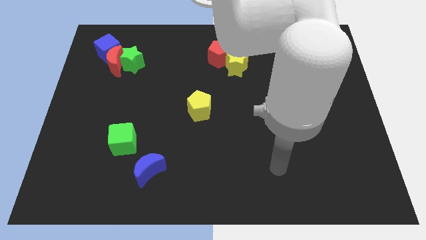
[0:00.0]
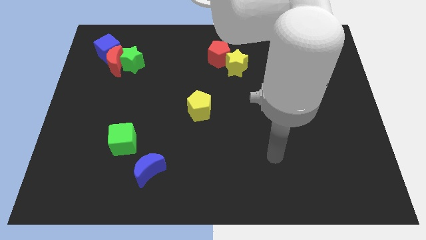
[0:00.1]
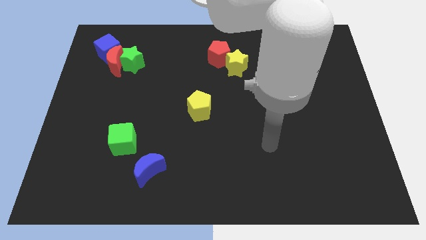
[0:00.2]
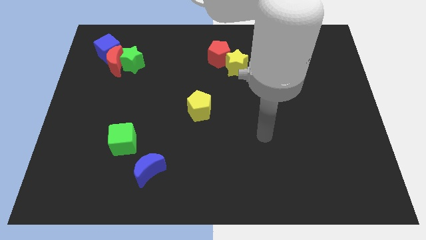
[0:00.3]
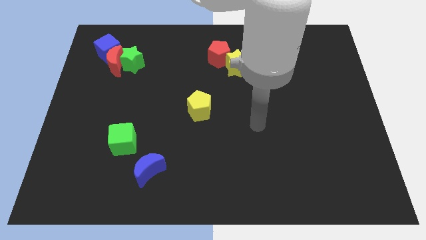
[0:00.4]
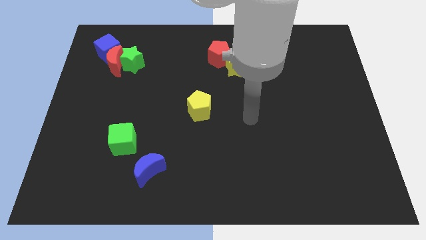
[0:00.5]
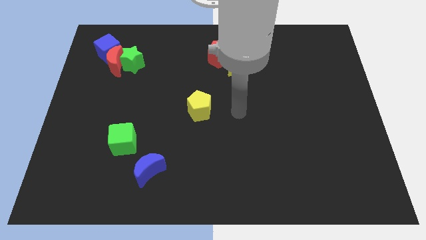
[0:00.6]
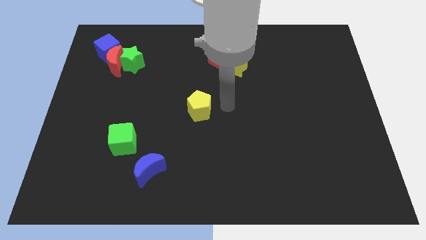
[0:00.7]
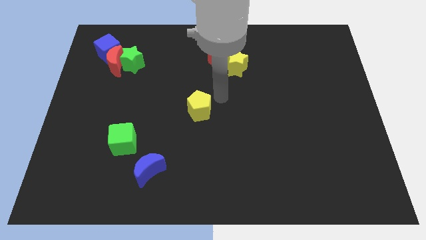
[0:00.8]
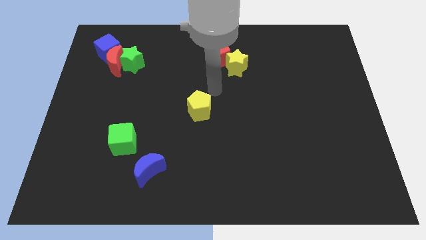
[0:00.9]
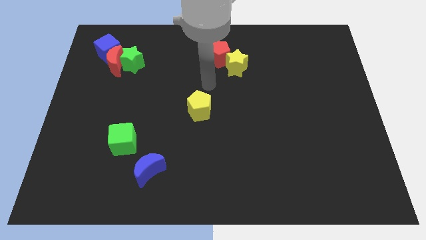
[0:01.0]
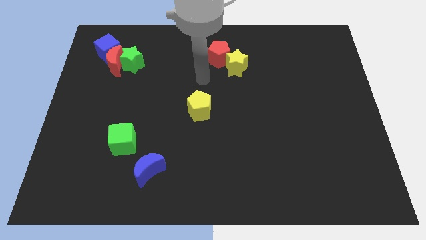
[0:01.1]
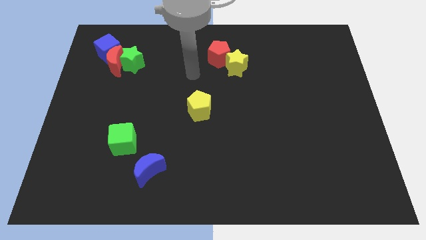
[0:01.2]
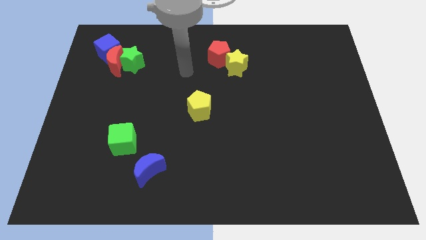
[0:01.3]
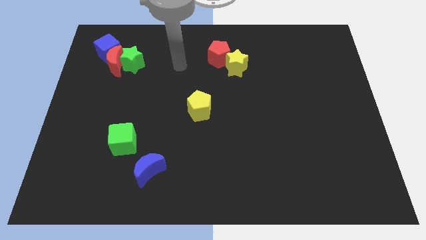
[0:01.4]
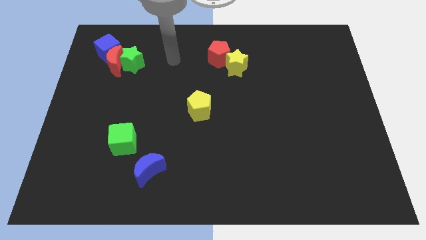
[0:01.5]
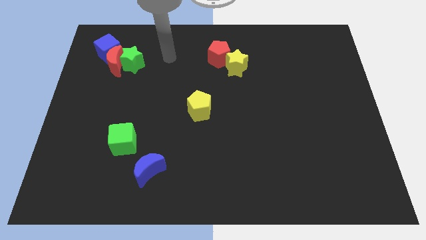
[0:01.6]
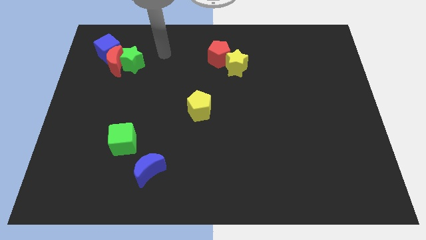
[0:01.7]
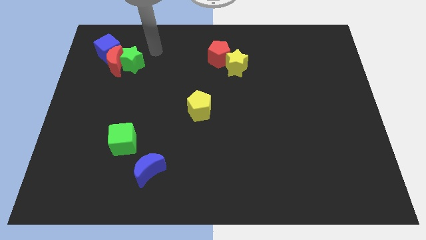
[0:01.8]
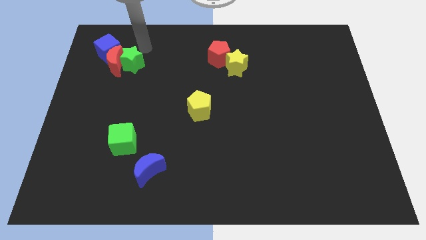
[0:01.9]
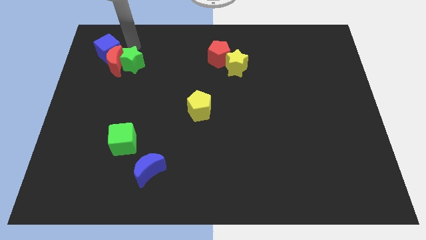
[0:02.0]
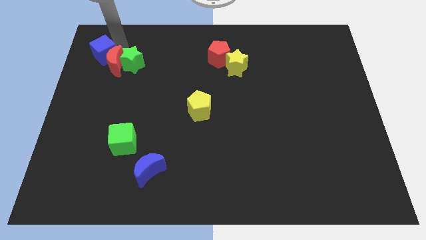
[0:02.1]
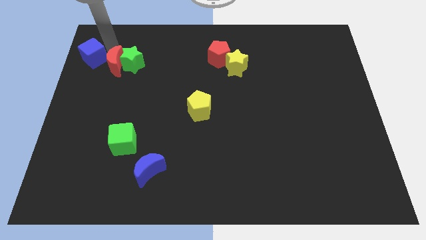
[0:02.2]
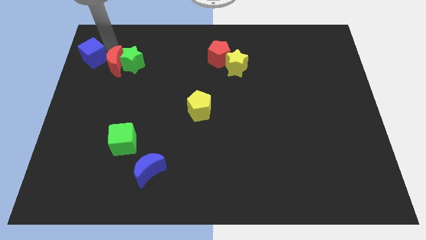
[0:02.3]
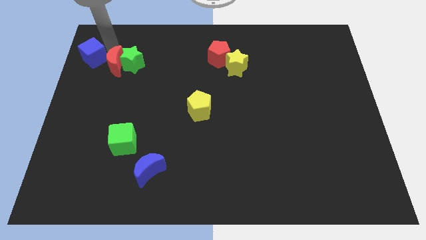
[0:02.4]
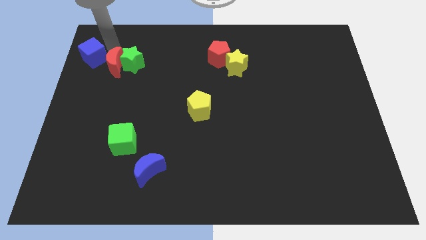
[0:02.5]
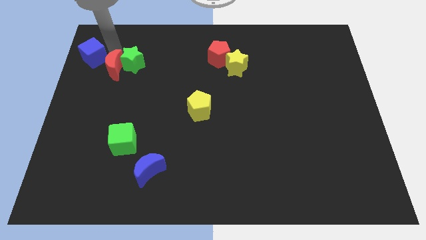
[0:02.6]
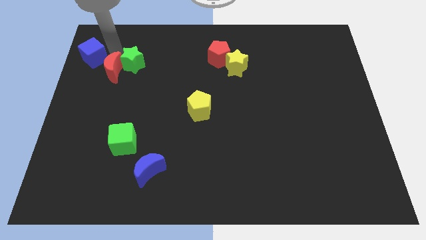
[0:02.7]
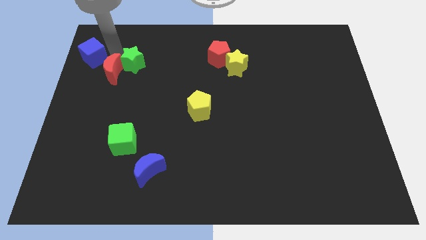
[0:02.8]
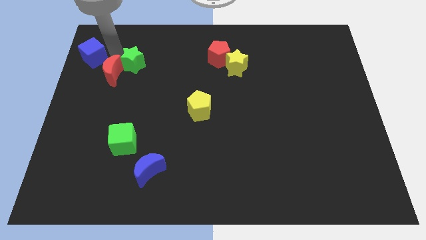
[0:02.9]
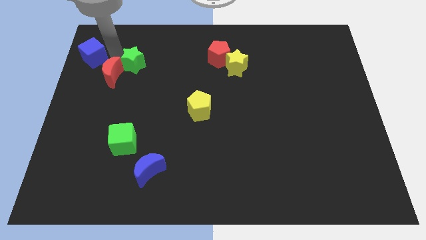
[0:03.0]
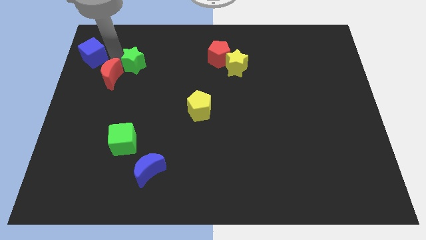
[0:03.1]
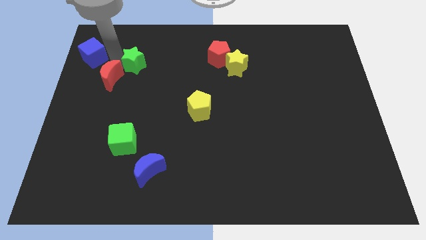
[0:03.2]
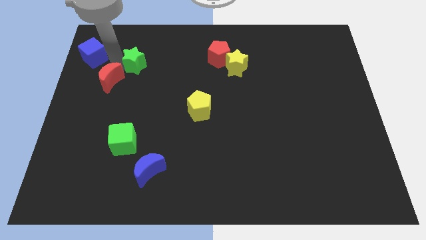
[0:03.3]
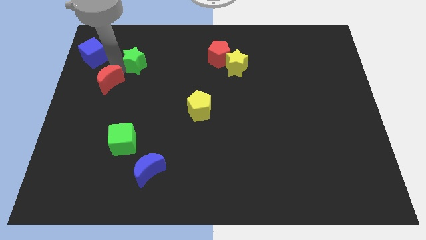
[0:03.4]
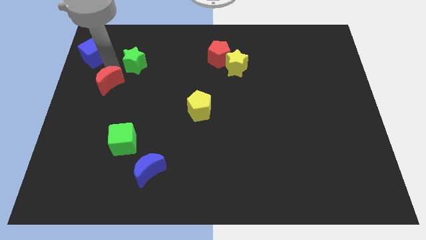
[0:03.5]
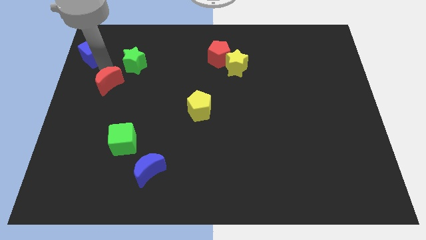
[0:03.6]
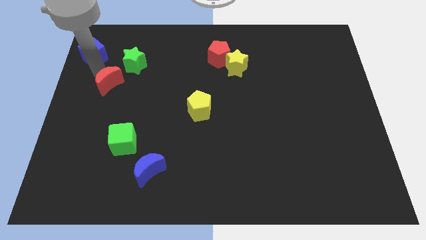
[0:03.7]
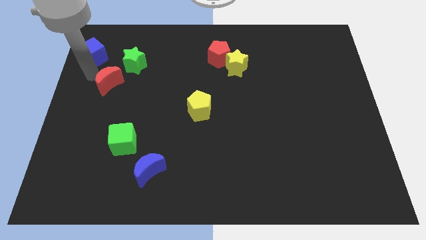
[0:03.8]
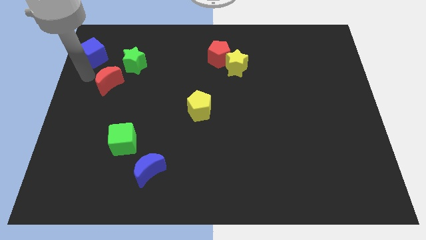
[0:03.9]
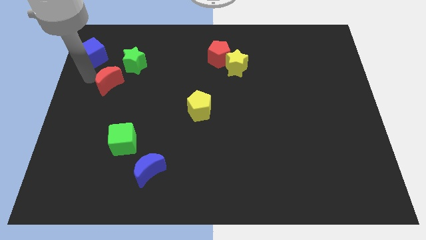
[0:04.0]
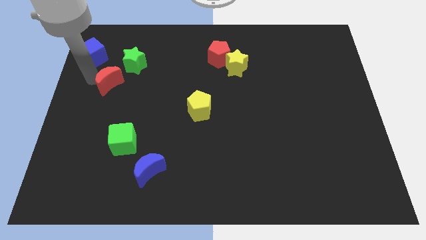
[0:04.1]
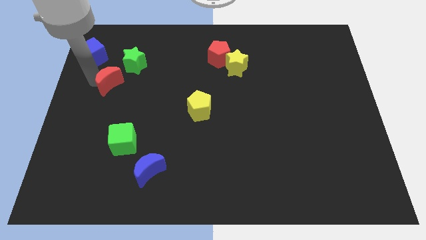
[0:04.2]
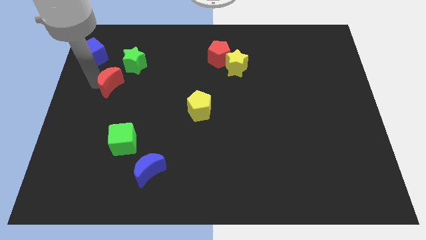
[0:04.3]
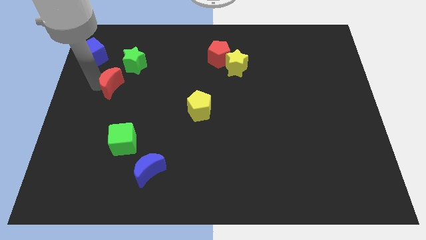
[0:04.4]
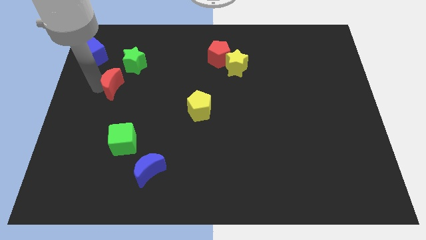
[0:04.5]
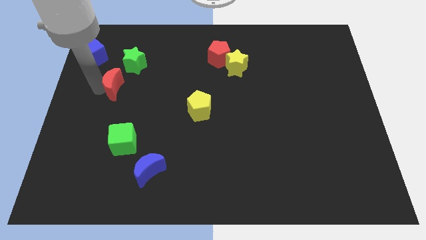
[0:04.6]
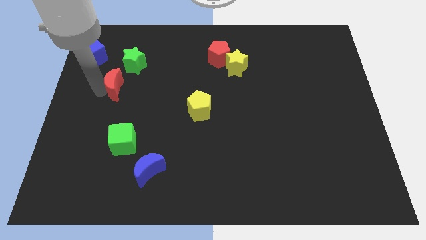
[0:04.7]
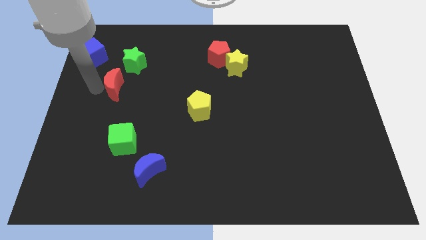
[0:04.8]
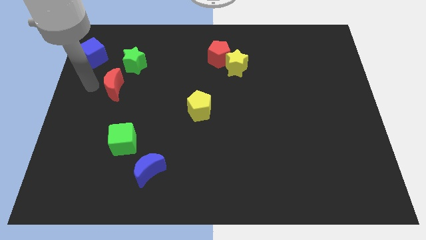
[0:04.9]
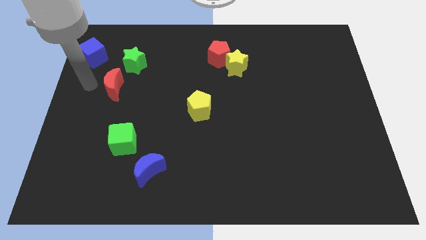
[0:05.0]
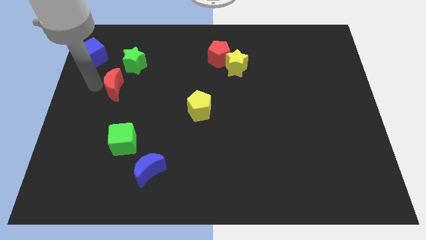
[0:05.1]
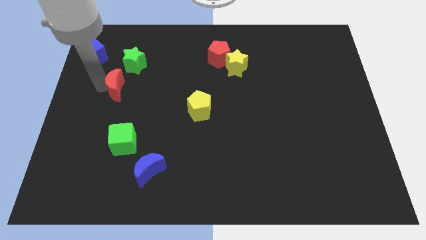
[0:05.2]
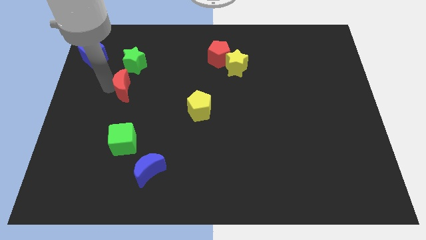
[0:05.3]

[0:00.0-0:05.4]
move the red moon down and then to the right a little

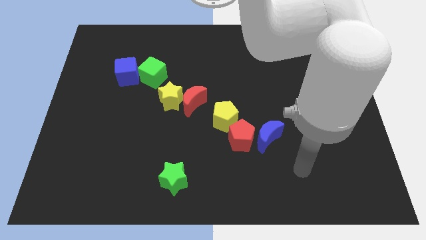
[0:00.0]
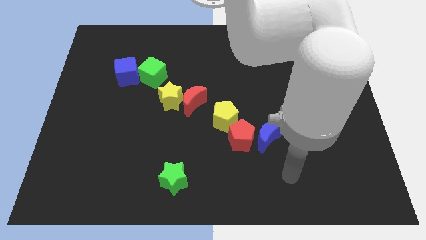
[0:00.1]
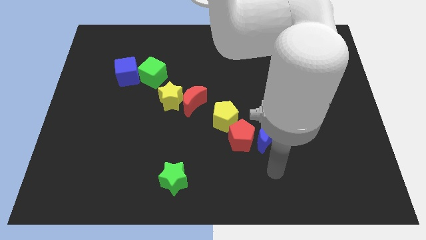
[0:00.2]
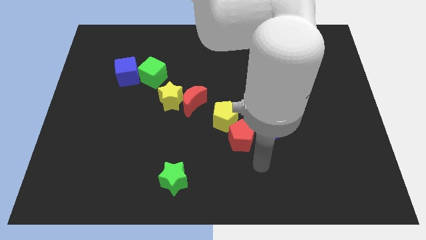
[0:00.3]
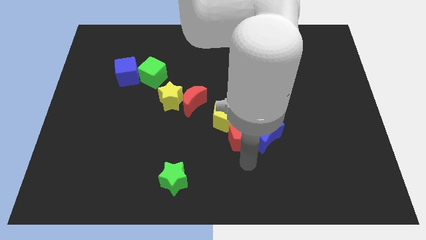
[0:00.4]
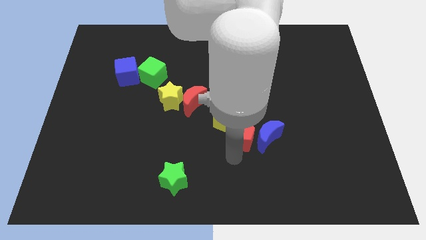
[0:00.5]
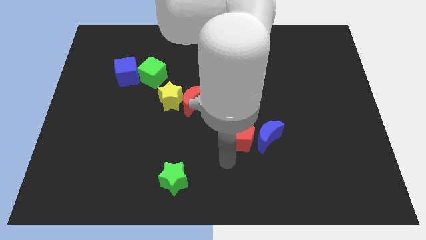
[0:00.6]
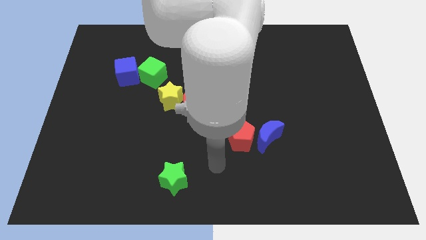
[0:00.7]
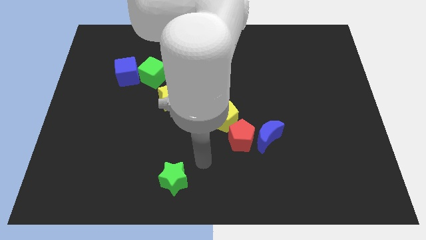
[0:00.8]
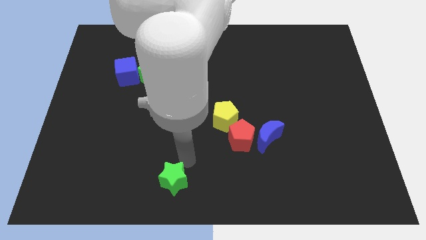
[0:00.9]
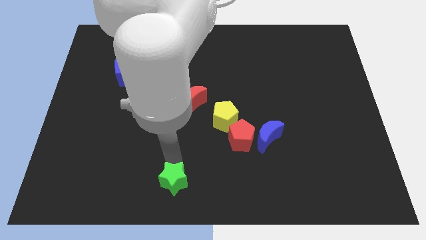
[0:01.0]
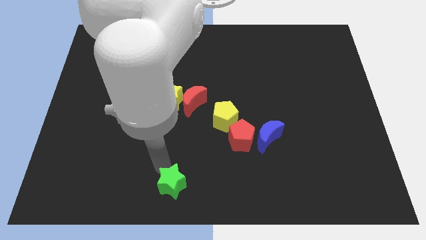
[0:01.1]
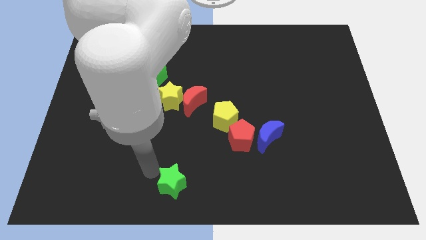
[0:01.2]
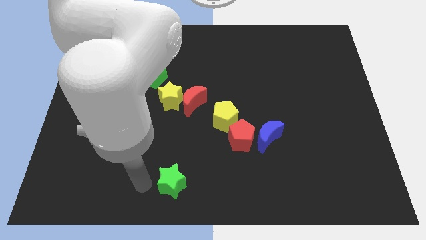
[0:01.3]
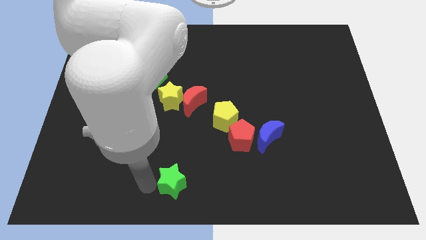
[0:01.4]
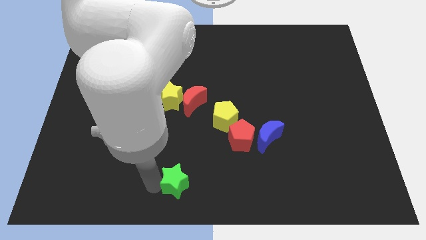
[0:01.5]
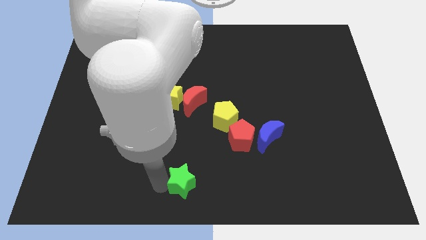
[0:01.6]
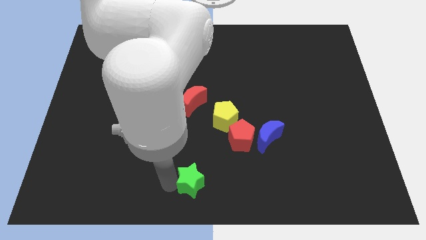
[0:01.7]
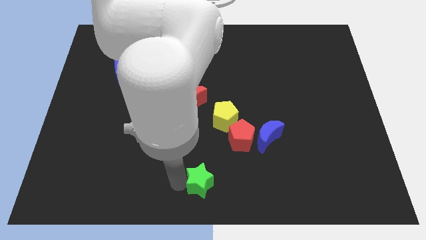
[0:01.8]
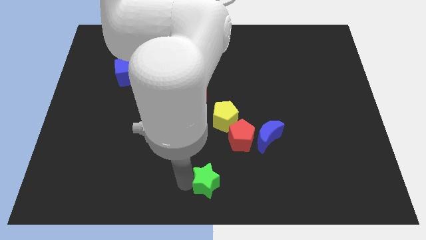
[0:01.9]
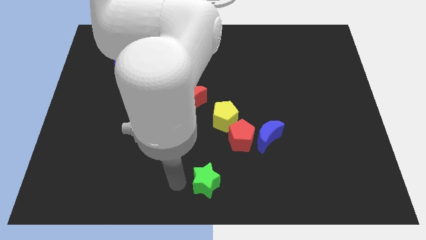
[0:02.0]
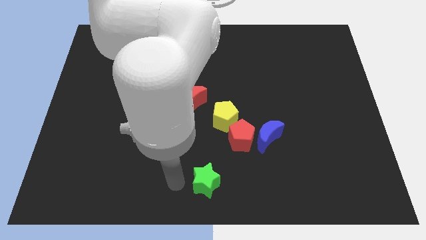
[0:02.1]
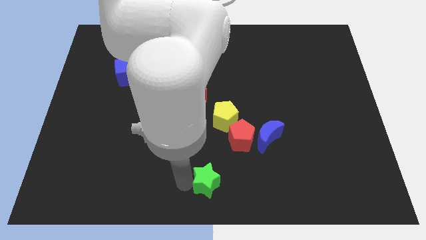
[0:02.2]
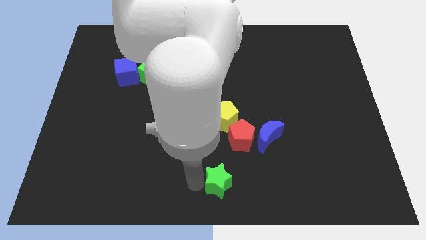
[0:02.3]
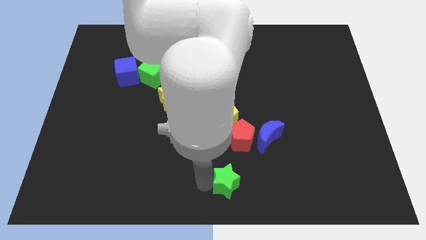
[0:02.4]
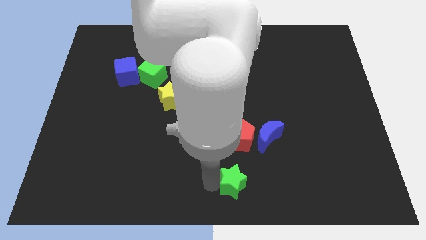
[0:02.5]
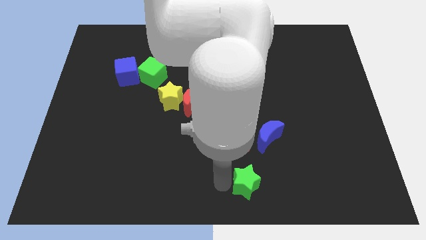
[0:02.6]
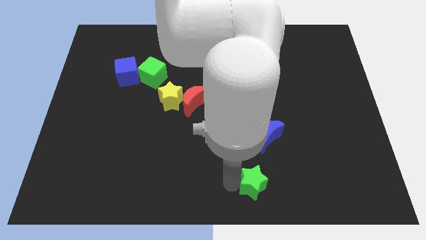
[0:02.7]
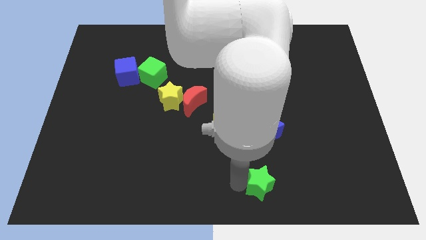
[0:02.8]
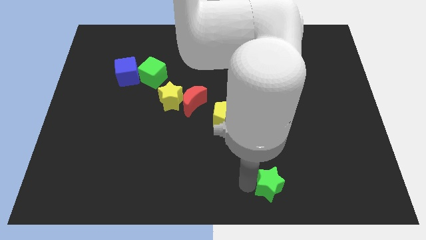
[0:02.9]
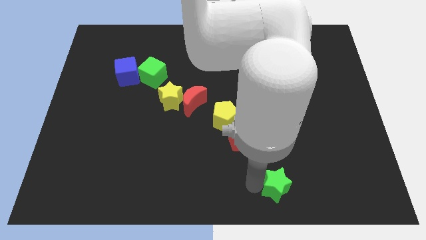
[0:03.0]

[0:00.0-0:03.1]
slide the green star right
